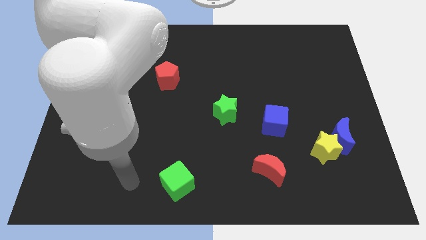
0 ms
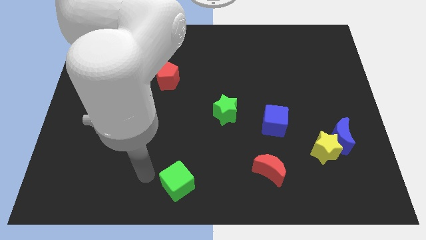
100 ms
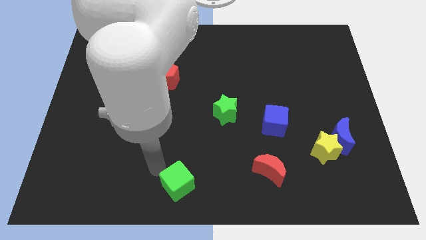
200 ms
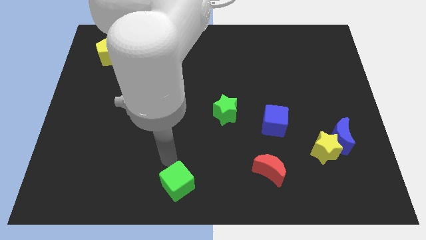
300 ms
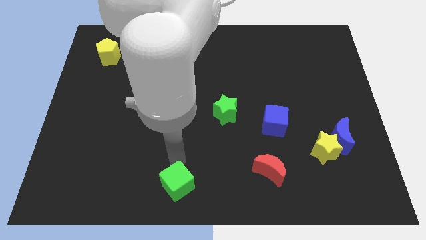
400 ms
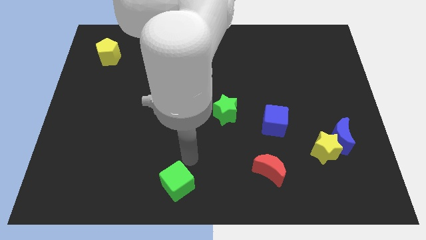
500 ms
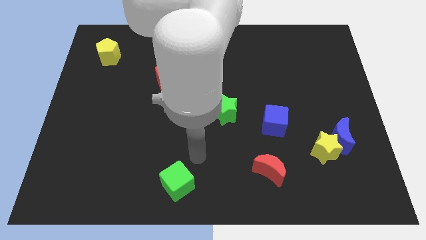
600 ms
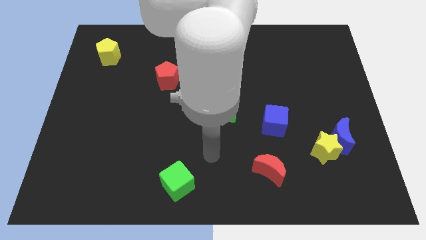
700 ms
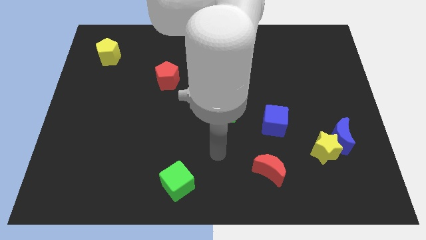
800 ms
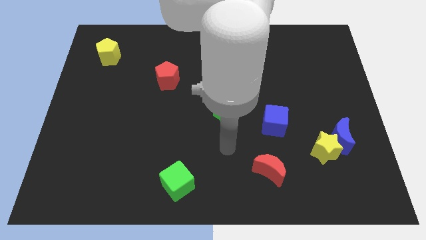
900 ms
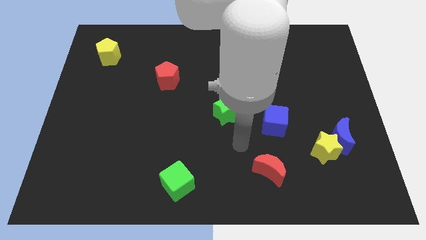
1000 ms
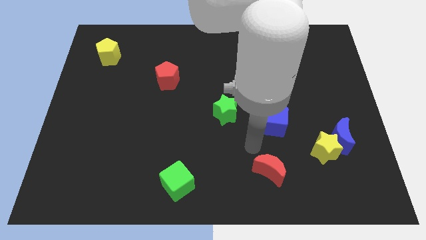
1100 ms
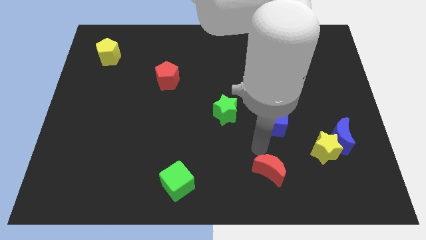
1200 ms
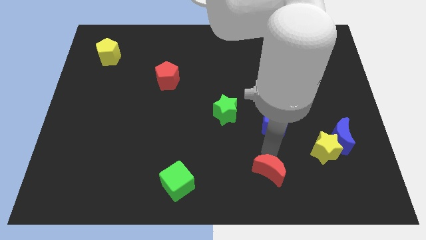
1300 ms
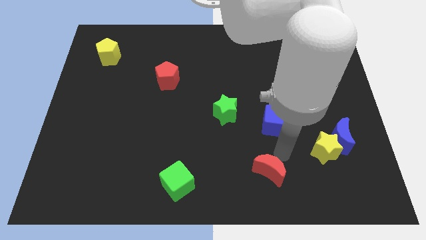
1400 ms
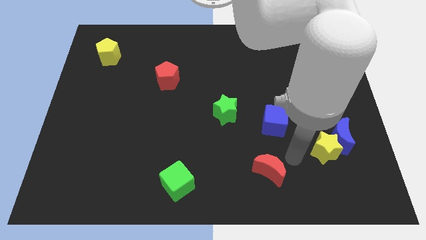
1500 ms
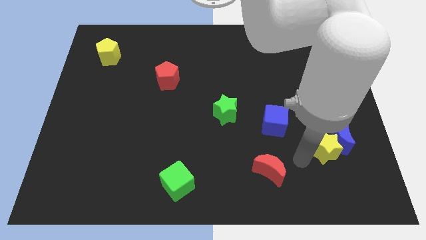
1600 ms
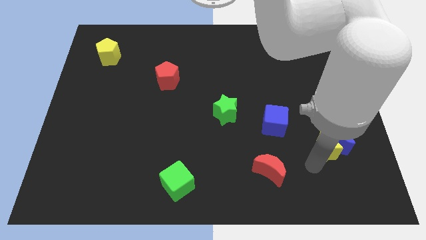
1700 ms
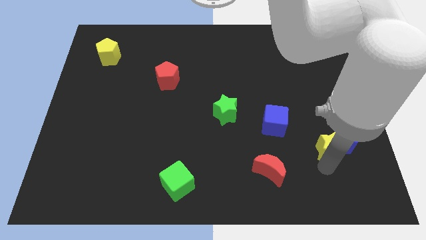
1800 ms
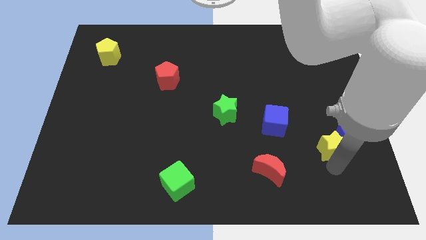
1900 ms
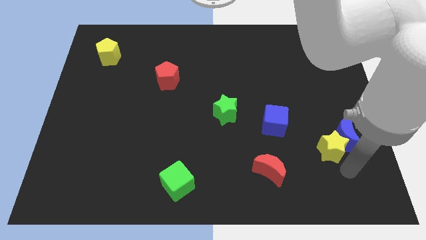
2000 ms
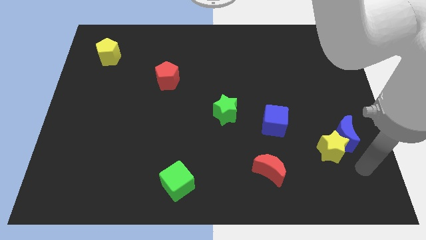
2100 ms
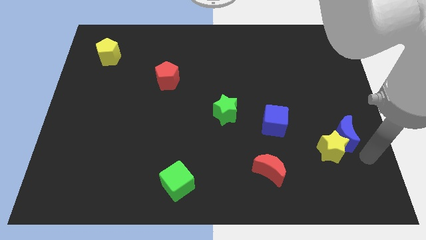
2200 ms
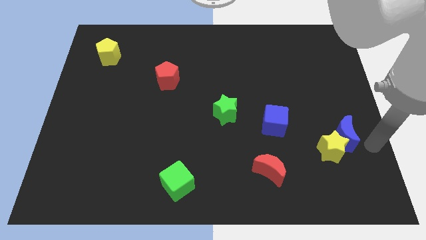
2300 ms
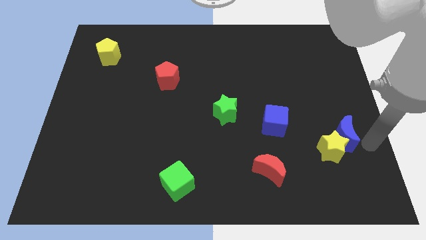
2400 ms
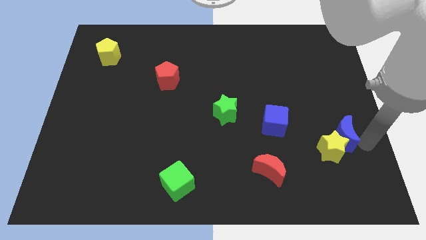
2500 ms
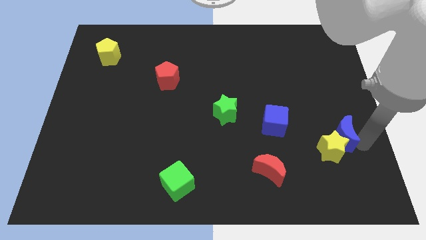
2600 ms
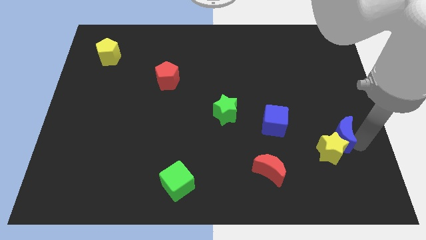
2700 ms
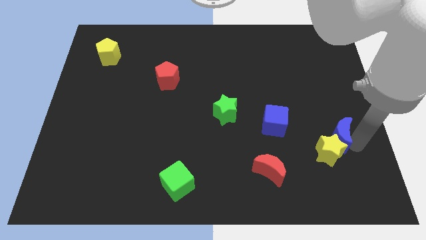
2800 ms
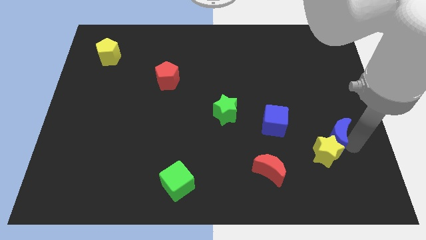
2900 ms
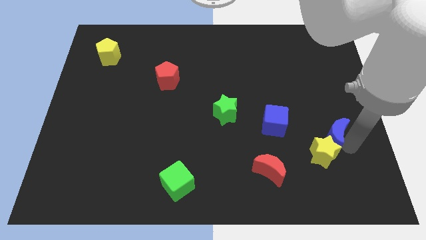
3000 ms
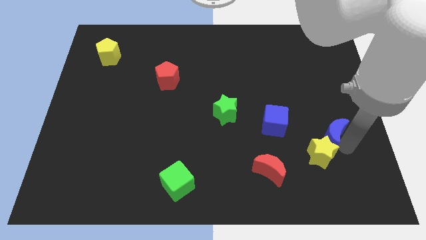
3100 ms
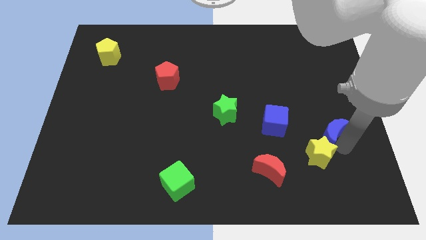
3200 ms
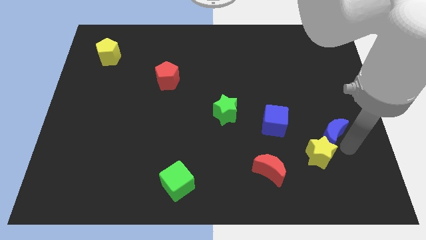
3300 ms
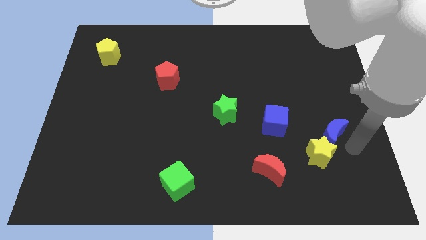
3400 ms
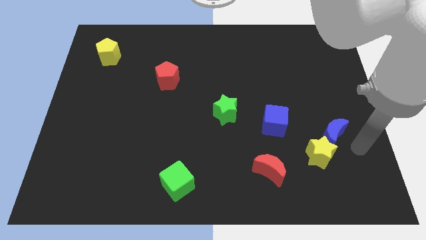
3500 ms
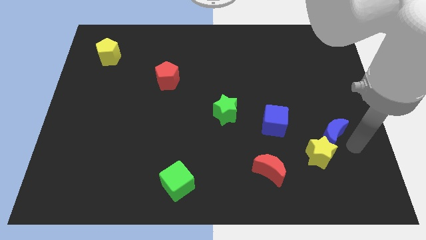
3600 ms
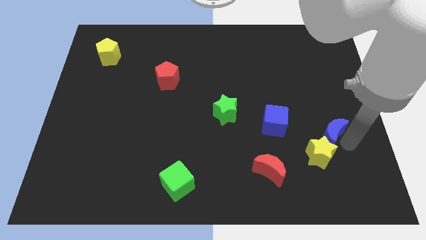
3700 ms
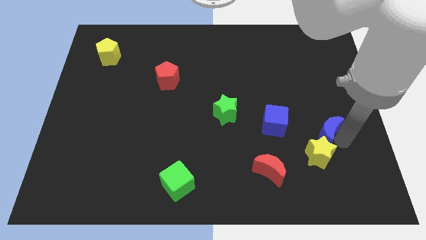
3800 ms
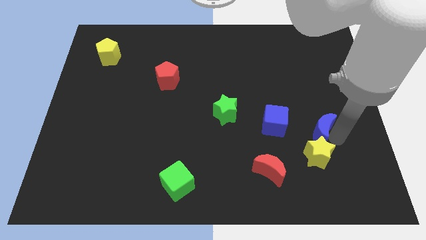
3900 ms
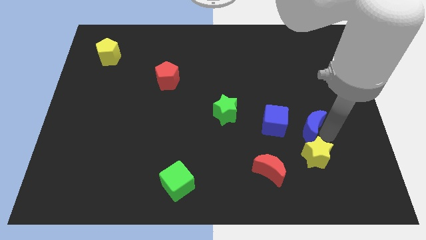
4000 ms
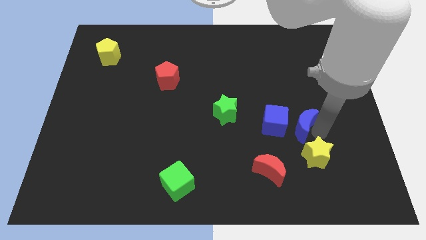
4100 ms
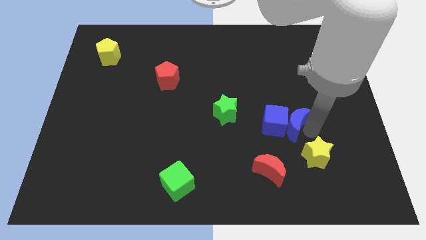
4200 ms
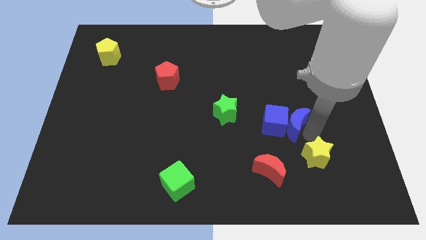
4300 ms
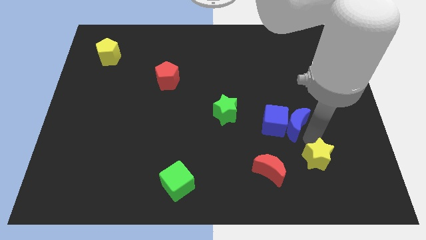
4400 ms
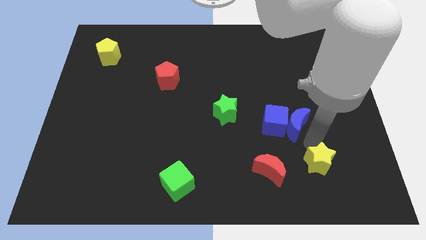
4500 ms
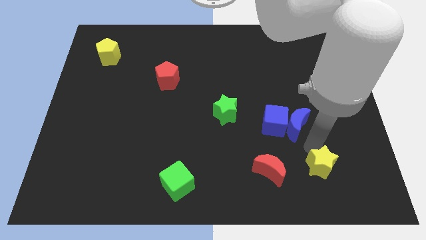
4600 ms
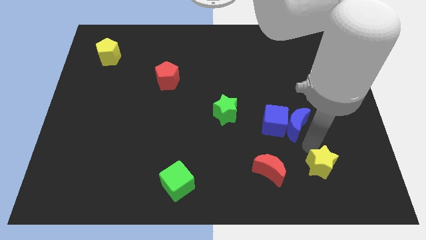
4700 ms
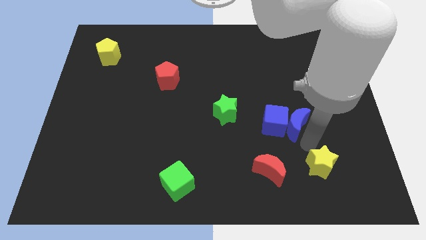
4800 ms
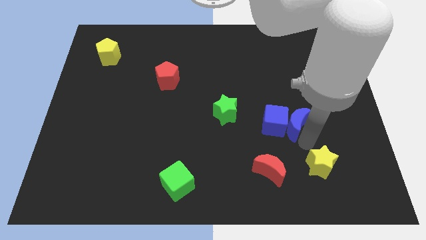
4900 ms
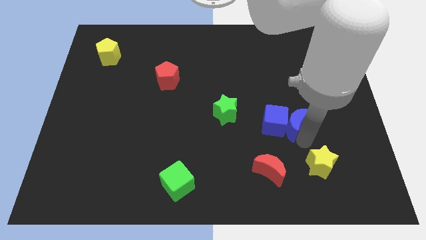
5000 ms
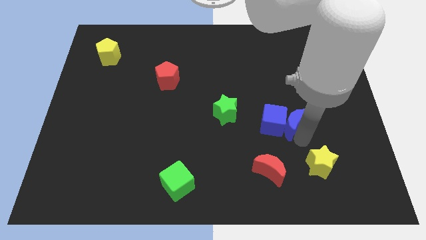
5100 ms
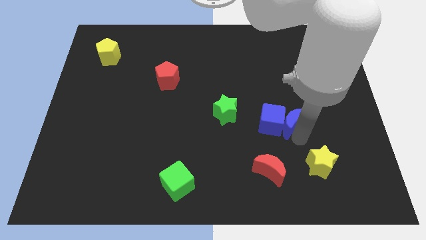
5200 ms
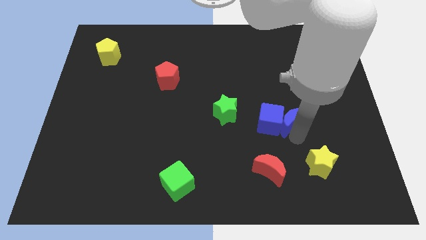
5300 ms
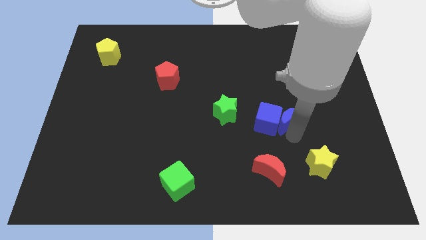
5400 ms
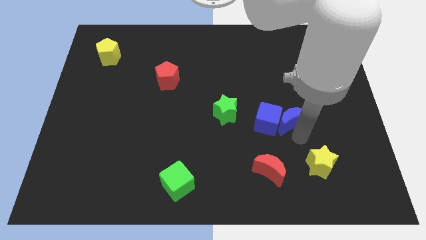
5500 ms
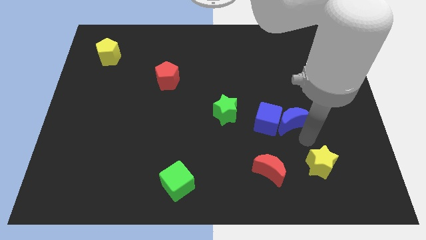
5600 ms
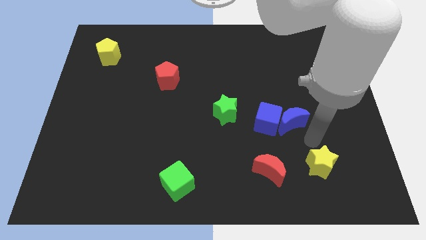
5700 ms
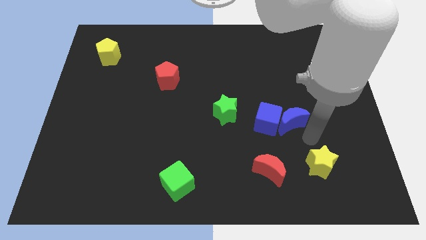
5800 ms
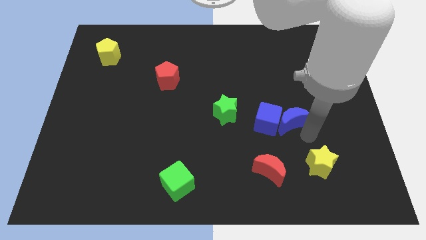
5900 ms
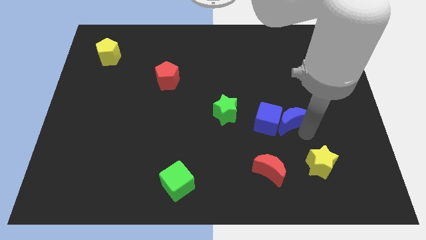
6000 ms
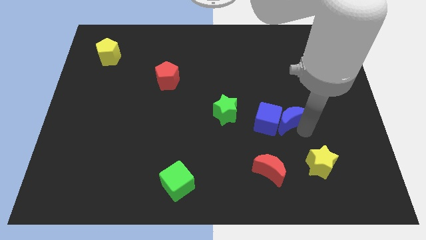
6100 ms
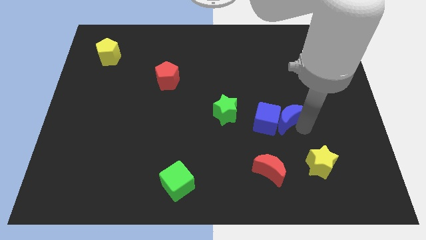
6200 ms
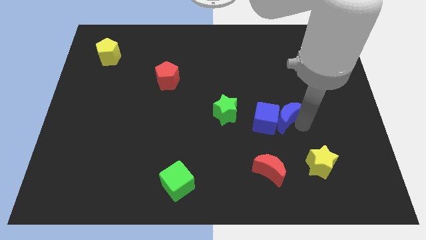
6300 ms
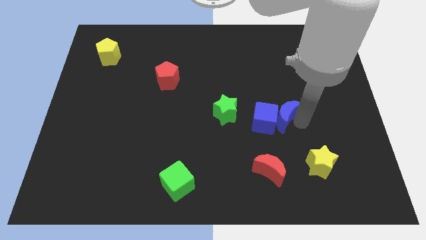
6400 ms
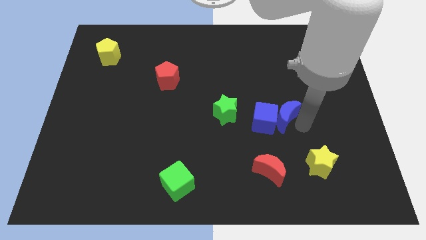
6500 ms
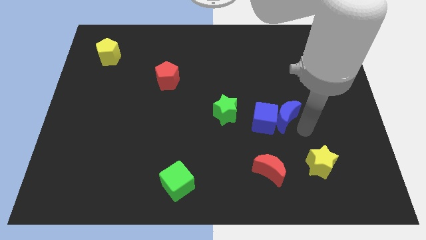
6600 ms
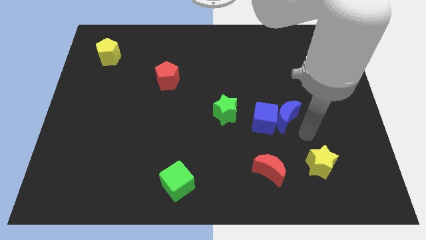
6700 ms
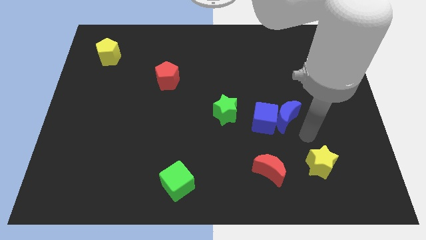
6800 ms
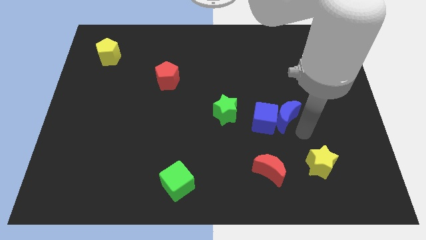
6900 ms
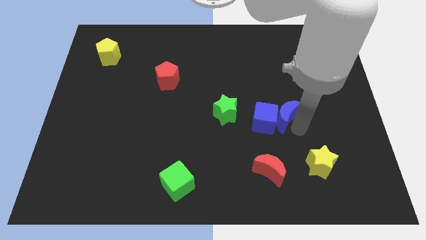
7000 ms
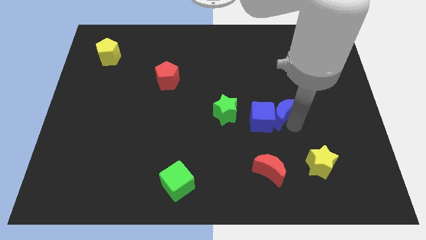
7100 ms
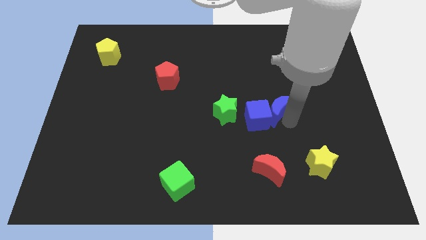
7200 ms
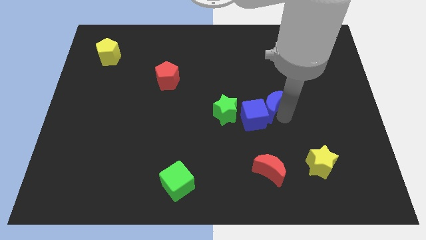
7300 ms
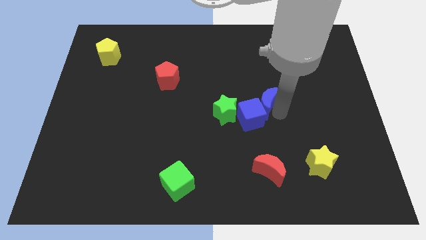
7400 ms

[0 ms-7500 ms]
push the blue moon to the middle
